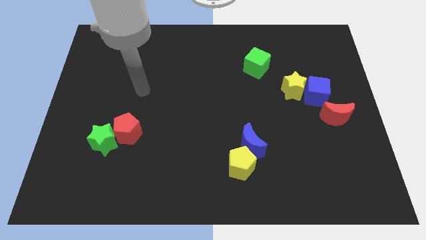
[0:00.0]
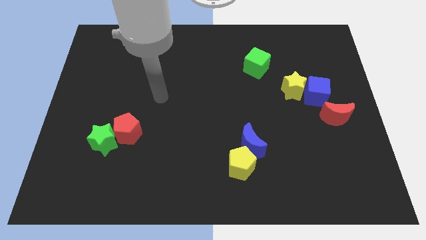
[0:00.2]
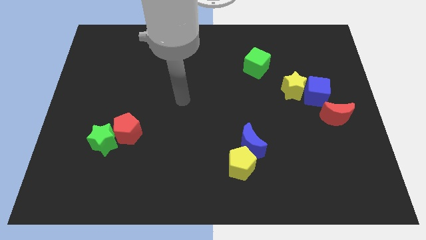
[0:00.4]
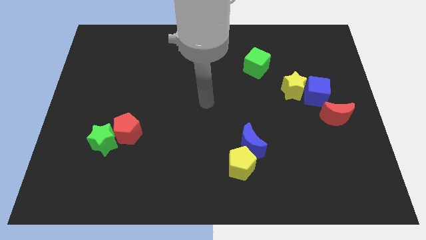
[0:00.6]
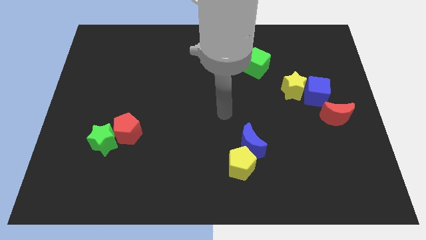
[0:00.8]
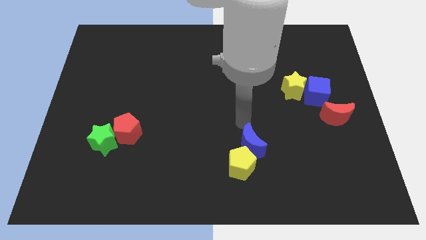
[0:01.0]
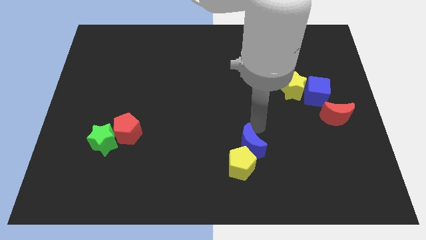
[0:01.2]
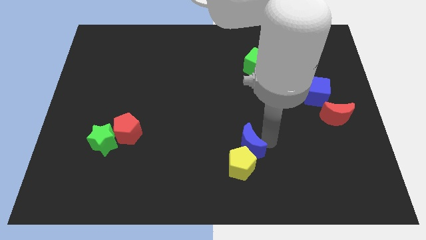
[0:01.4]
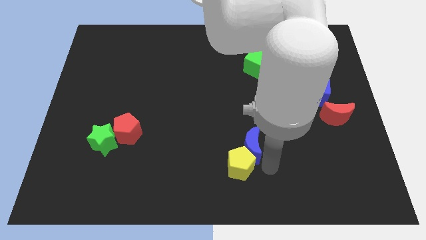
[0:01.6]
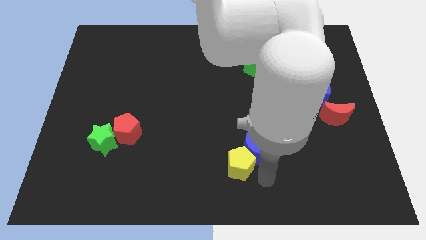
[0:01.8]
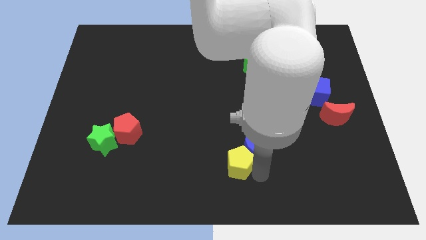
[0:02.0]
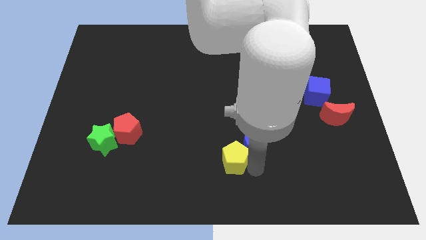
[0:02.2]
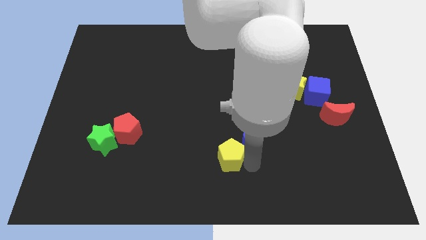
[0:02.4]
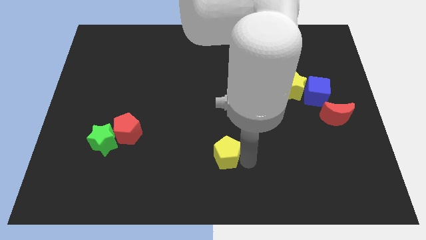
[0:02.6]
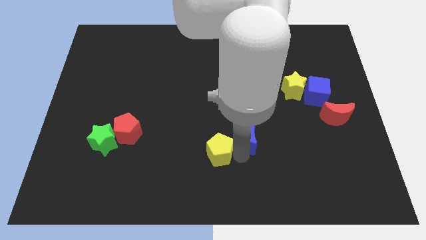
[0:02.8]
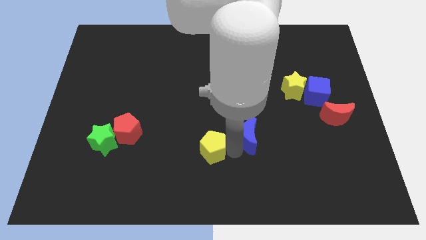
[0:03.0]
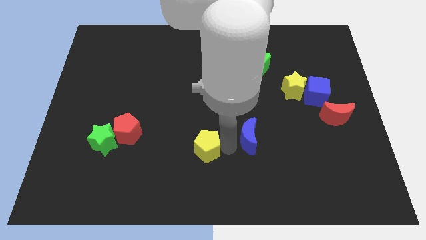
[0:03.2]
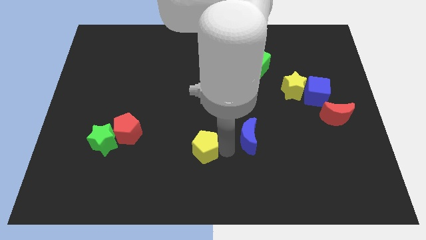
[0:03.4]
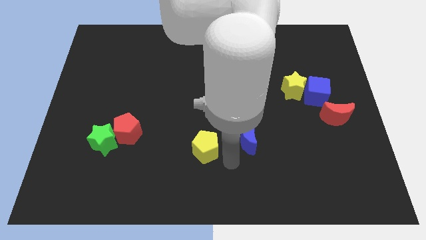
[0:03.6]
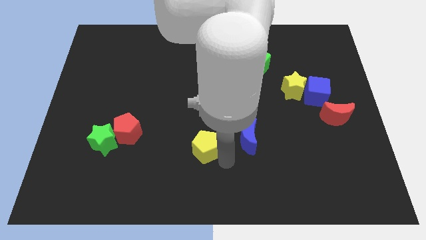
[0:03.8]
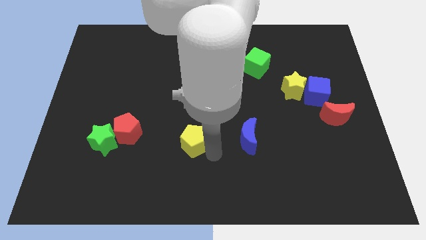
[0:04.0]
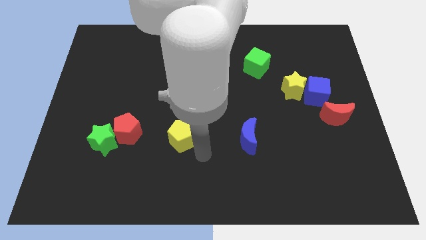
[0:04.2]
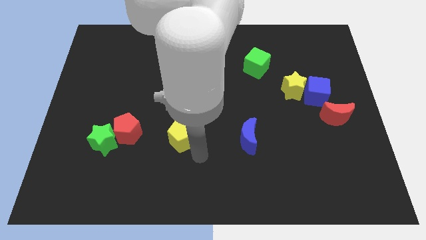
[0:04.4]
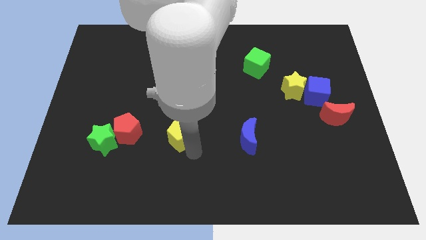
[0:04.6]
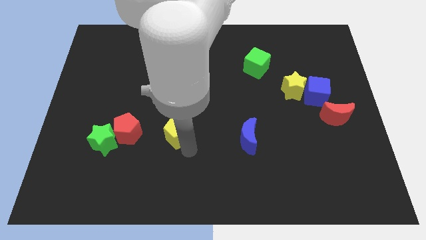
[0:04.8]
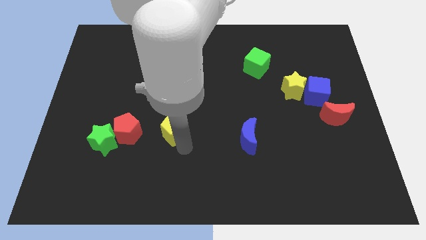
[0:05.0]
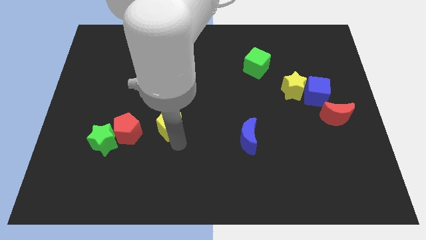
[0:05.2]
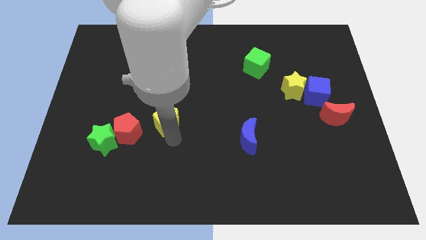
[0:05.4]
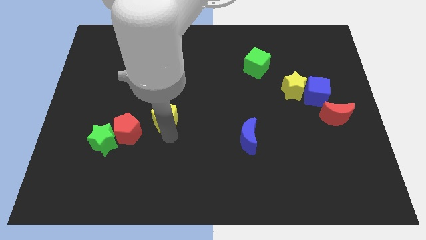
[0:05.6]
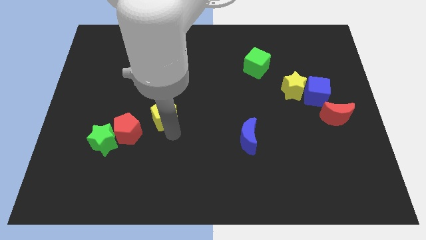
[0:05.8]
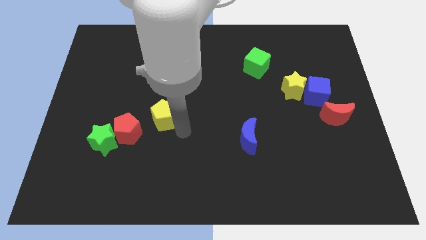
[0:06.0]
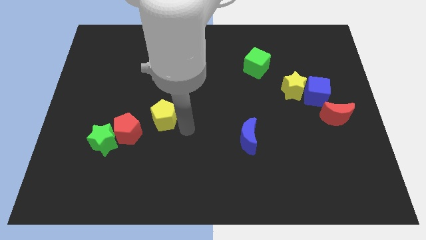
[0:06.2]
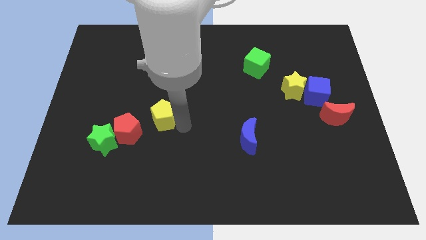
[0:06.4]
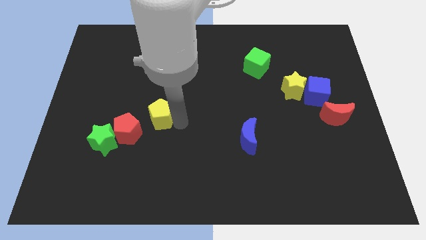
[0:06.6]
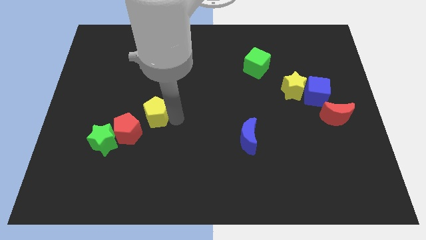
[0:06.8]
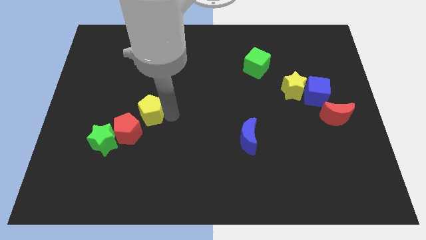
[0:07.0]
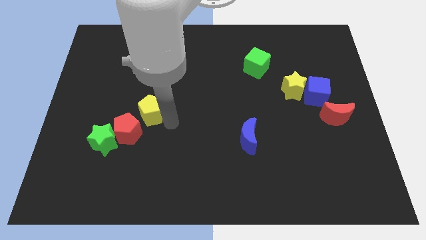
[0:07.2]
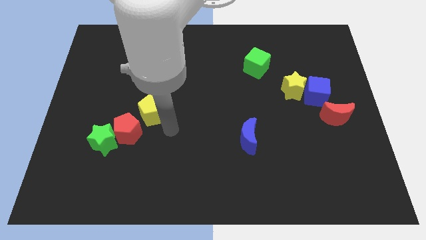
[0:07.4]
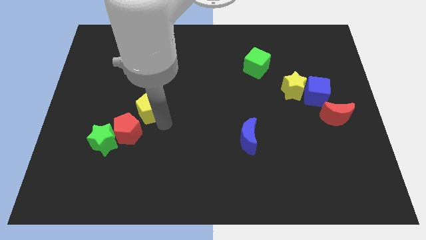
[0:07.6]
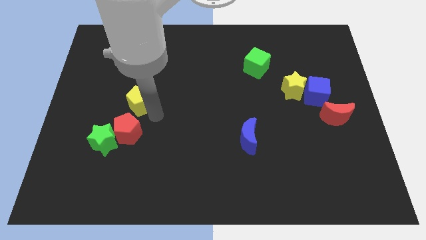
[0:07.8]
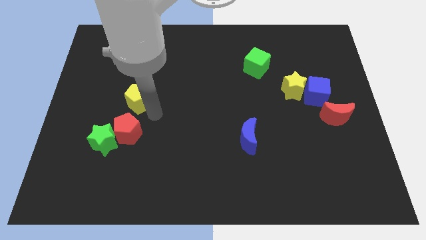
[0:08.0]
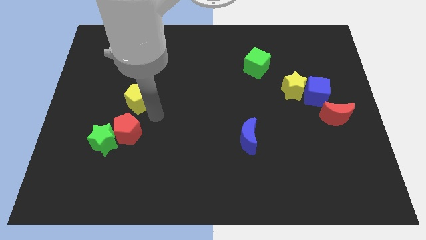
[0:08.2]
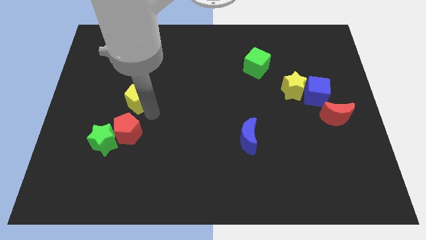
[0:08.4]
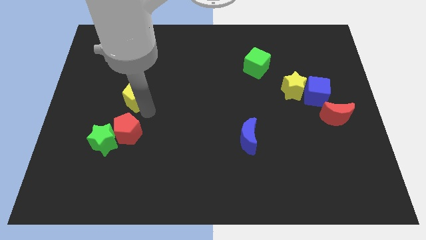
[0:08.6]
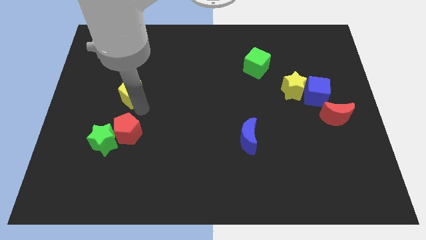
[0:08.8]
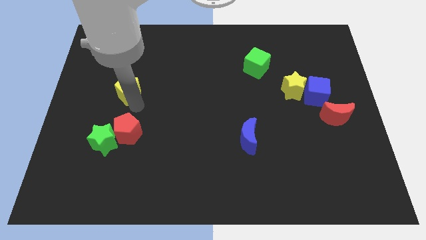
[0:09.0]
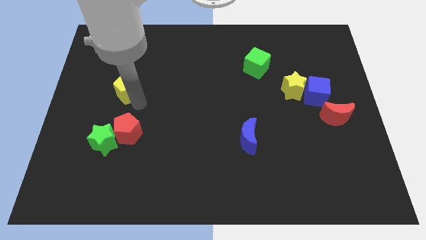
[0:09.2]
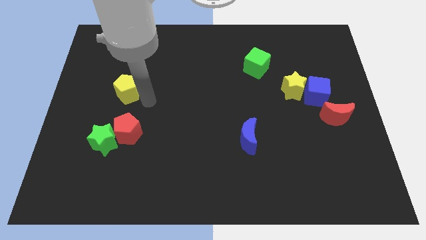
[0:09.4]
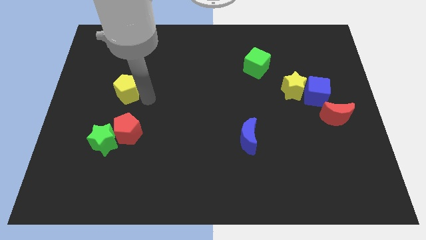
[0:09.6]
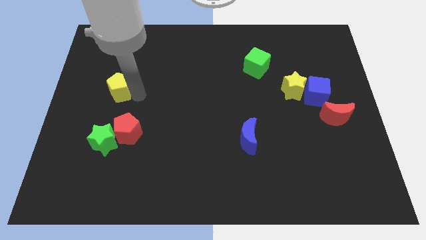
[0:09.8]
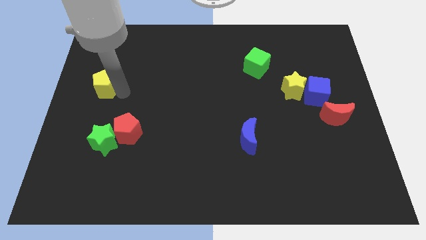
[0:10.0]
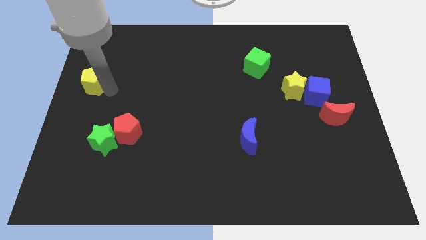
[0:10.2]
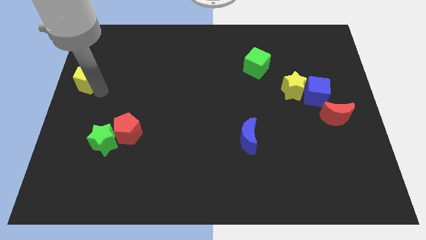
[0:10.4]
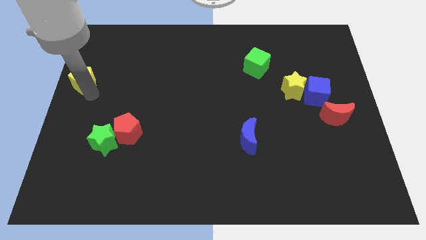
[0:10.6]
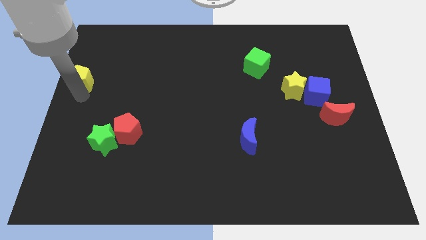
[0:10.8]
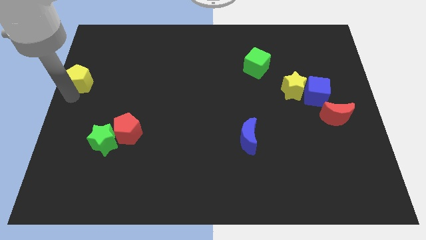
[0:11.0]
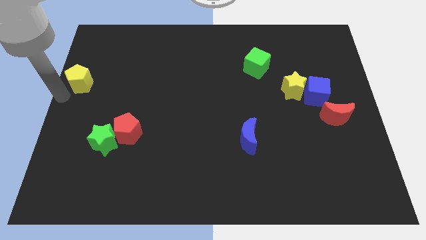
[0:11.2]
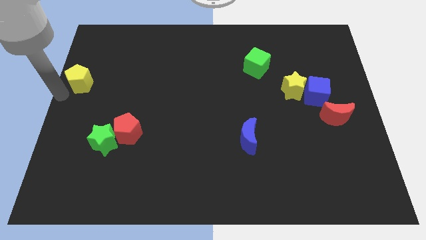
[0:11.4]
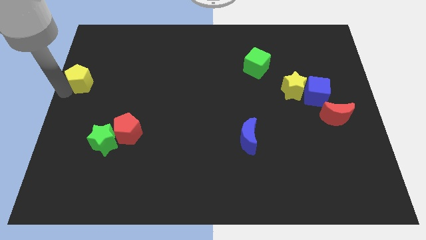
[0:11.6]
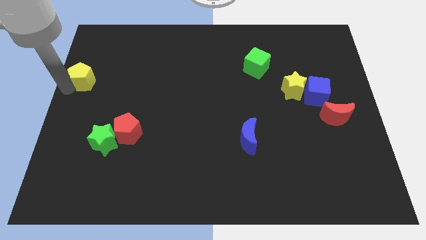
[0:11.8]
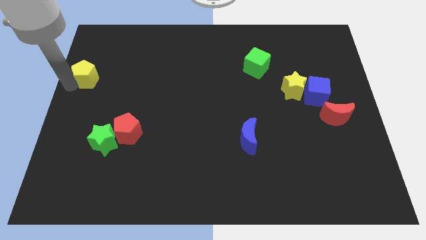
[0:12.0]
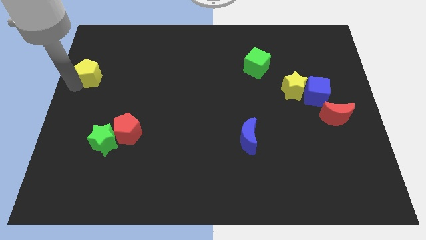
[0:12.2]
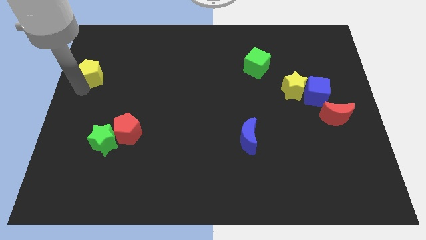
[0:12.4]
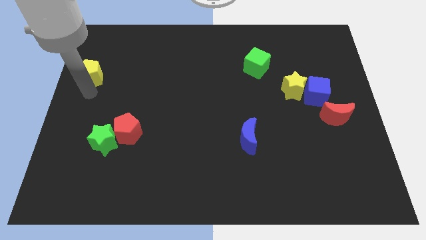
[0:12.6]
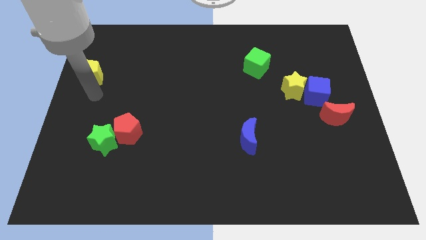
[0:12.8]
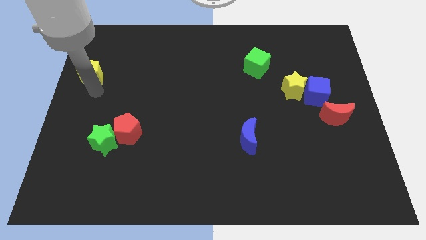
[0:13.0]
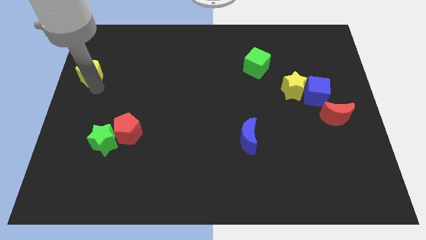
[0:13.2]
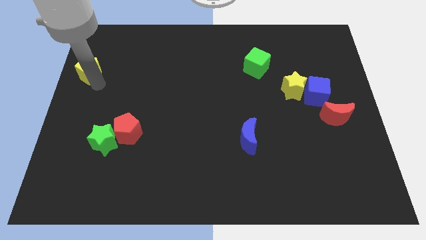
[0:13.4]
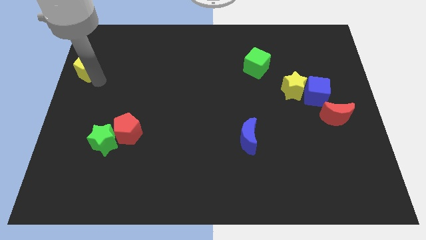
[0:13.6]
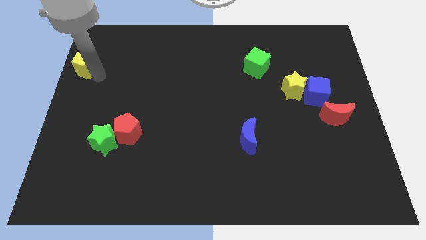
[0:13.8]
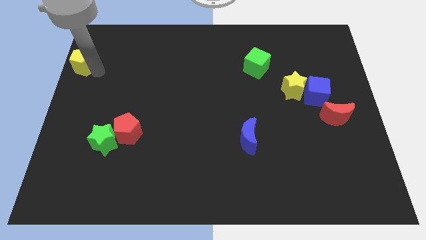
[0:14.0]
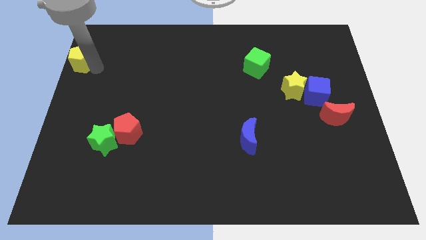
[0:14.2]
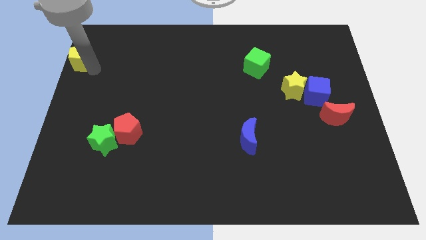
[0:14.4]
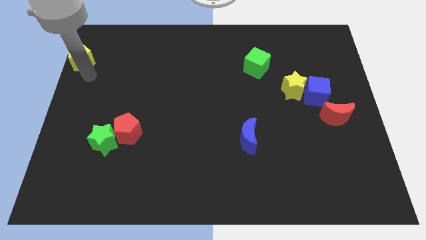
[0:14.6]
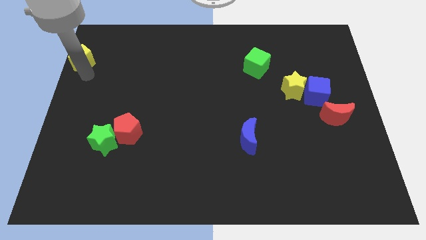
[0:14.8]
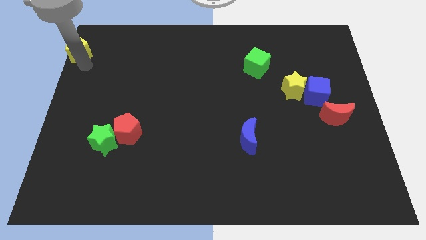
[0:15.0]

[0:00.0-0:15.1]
slide the yellow pentagon to the top left
